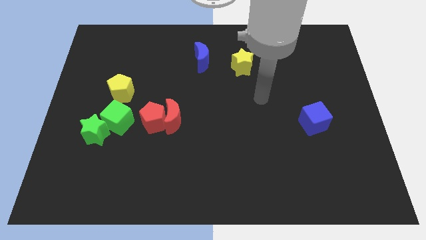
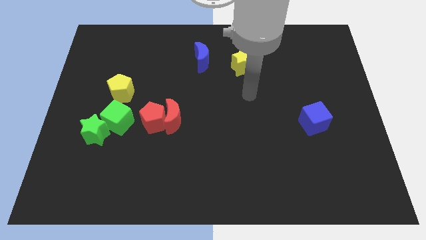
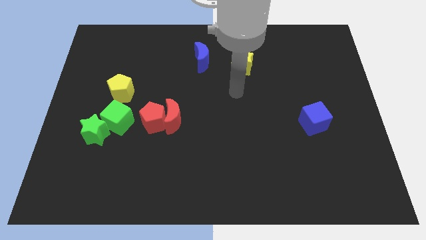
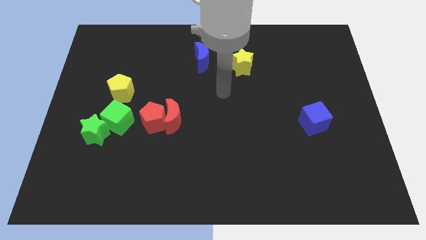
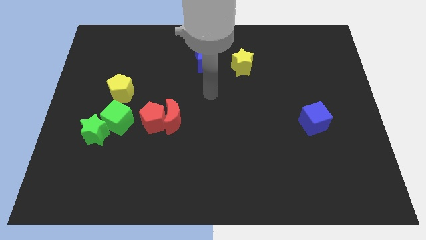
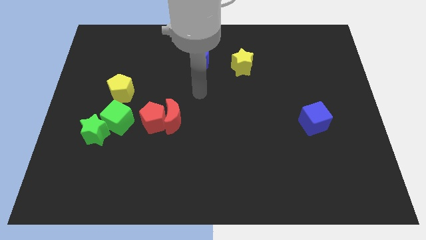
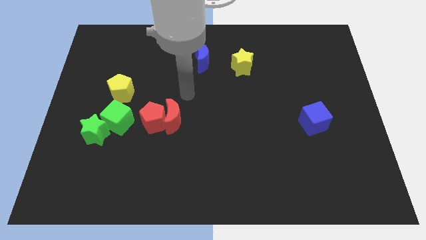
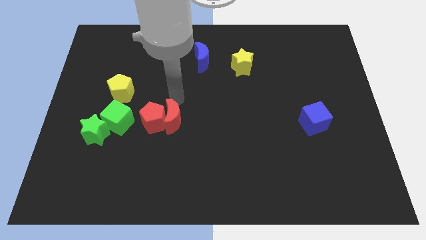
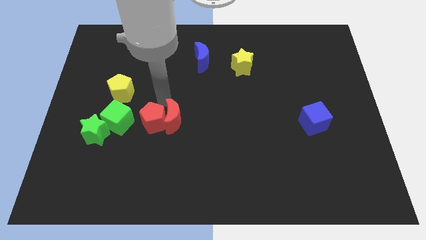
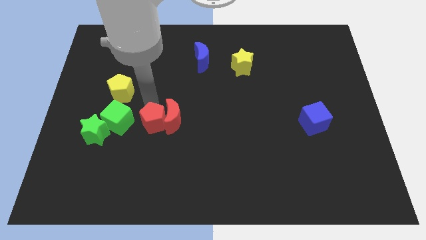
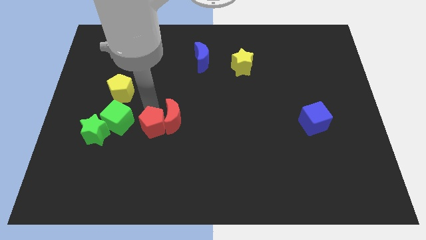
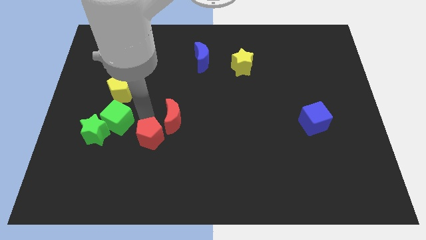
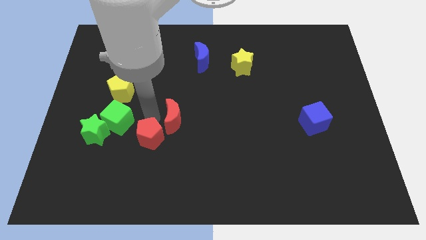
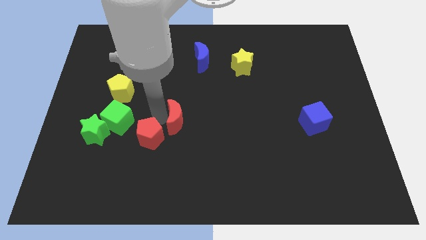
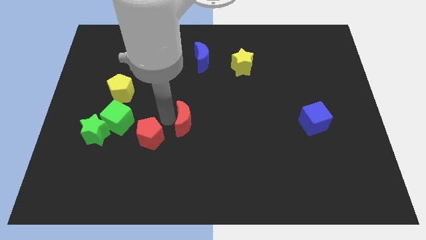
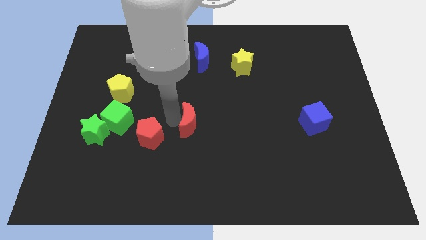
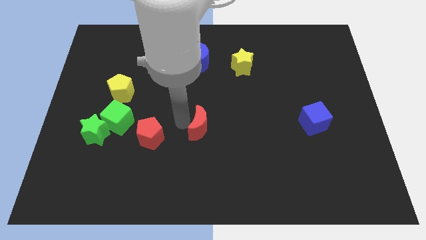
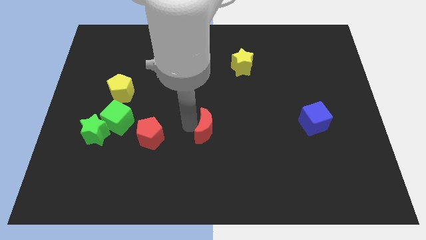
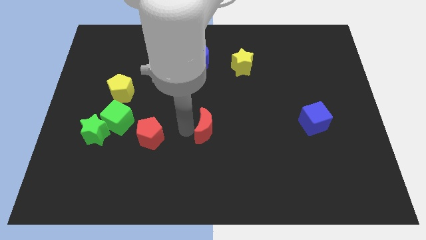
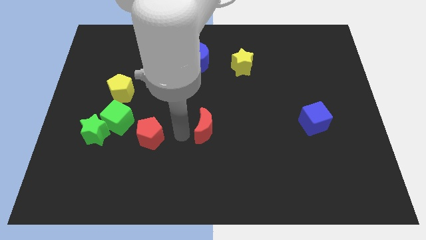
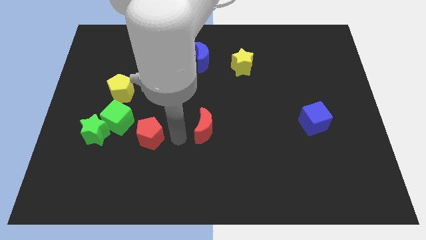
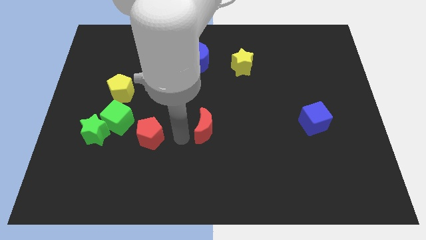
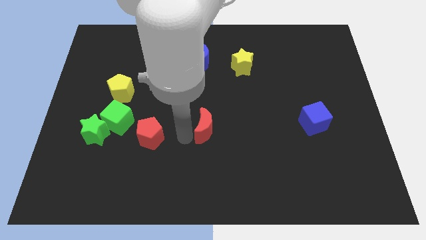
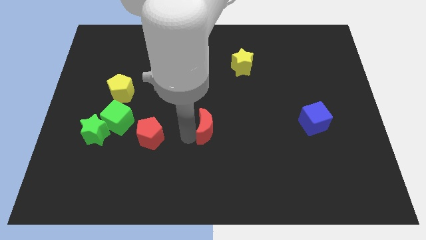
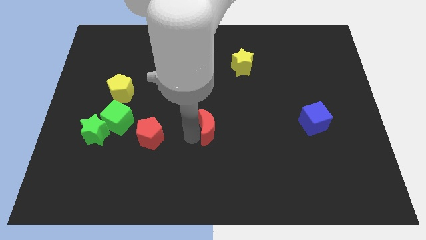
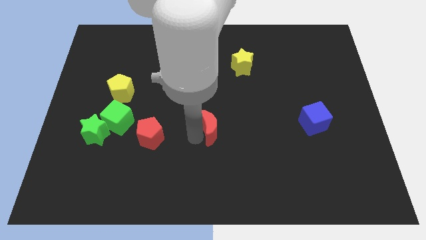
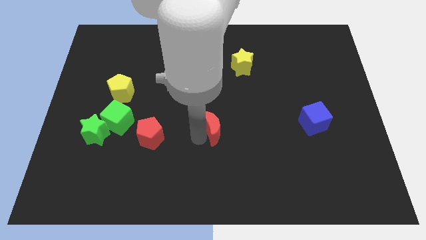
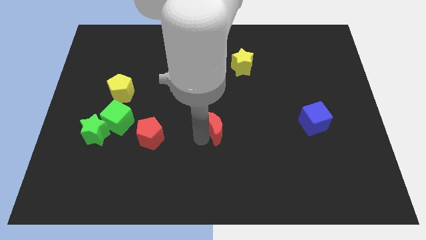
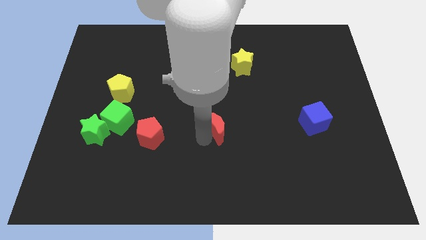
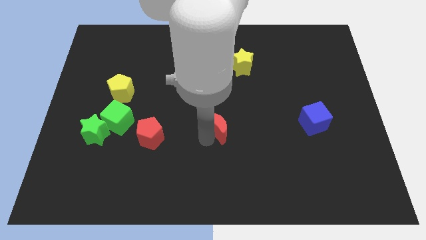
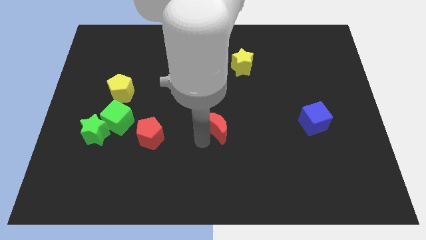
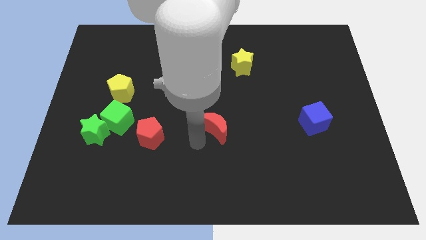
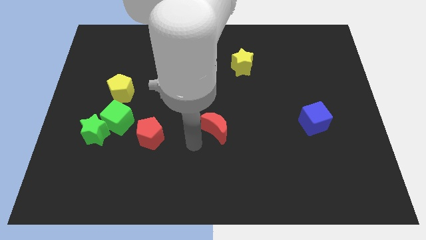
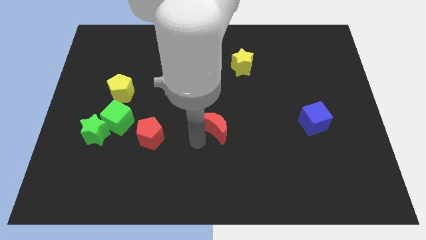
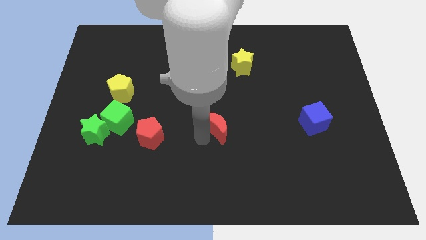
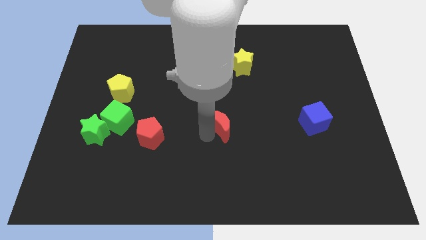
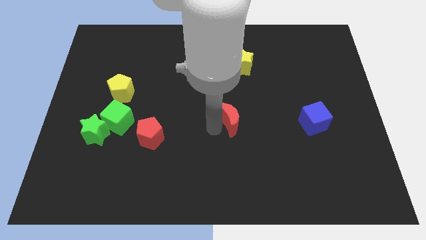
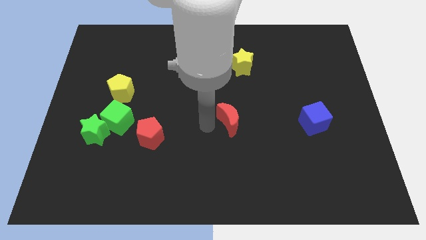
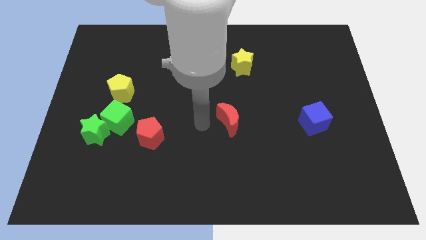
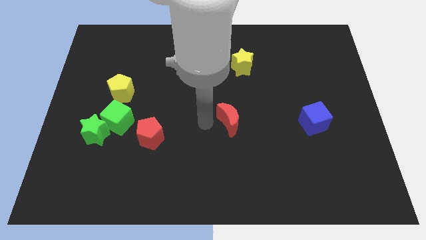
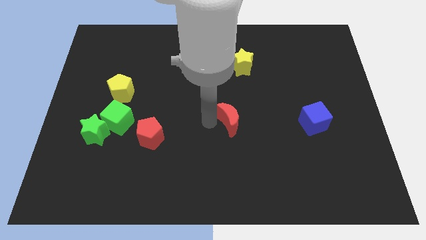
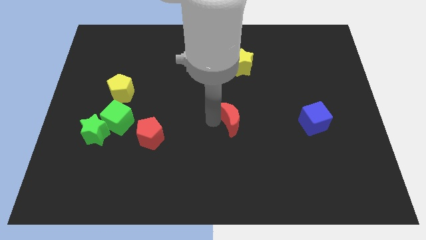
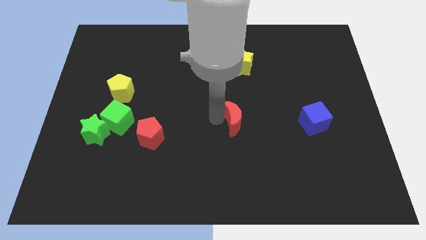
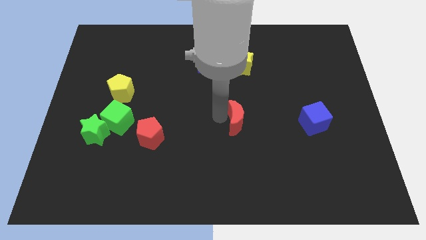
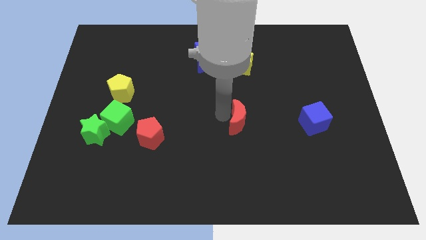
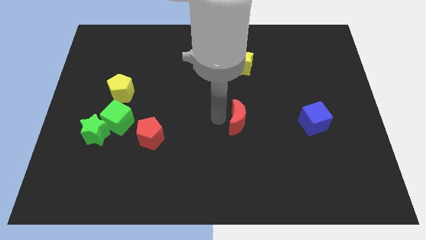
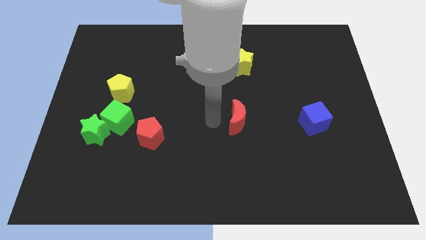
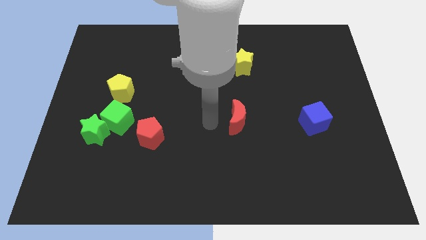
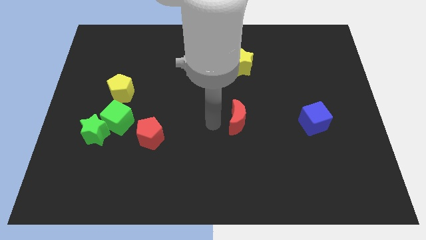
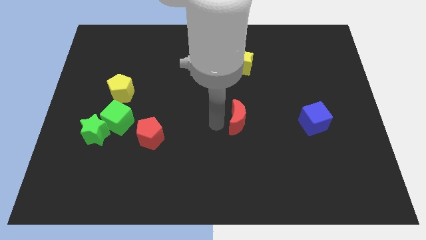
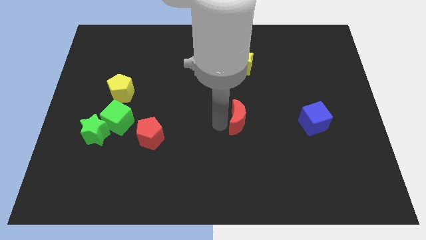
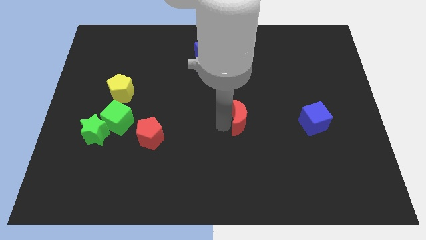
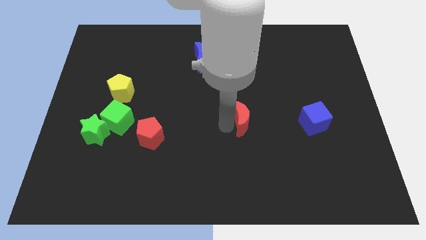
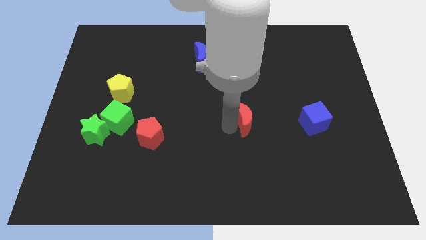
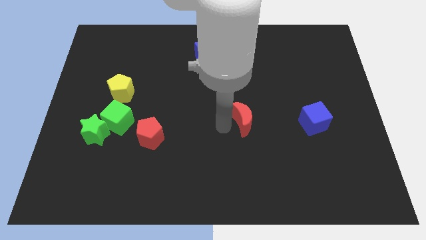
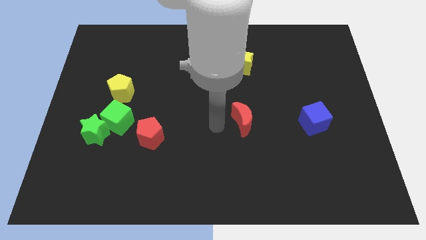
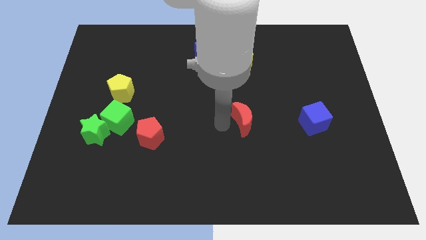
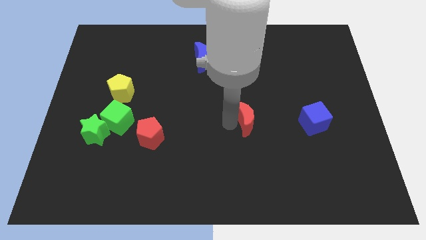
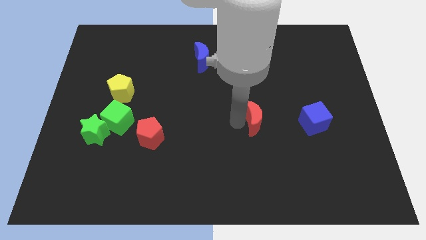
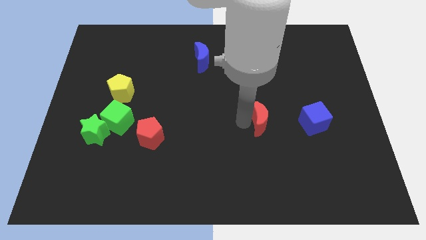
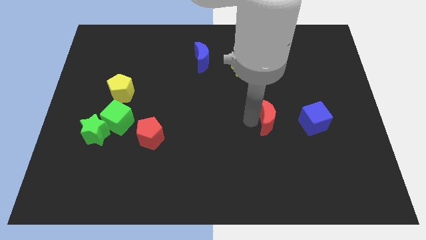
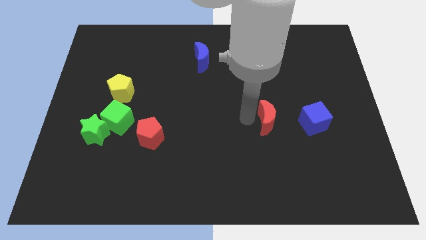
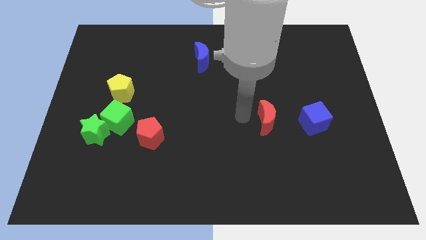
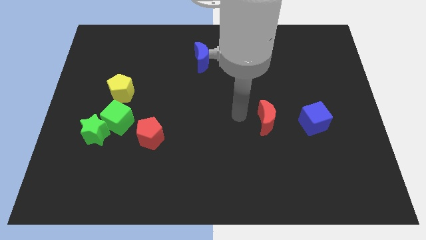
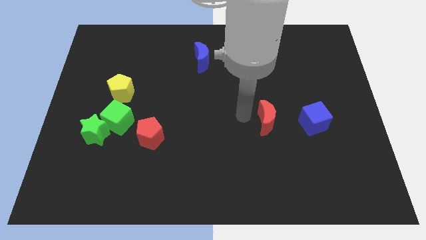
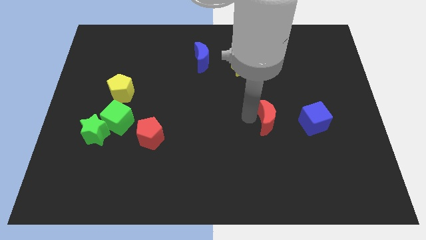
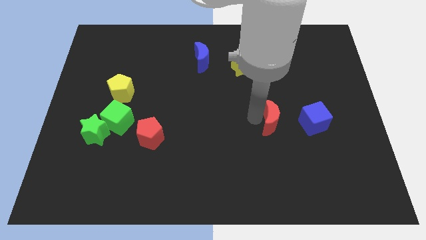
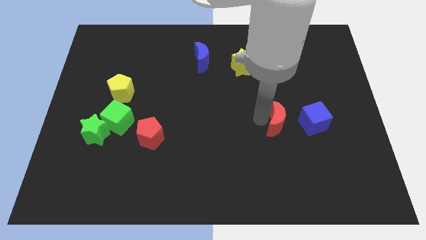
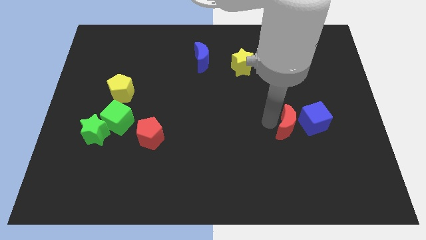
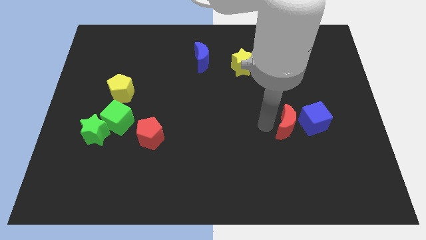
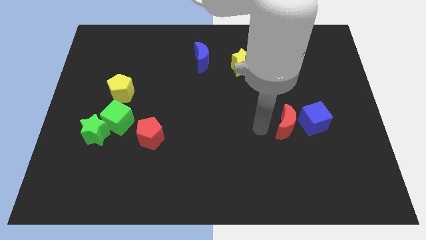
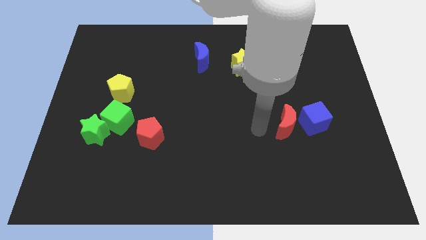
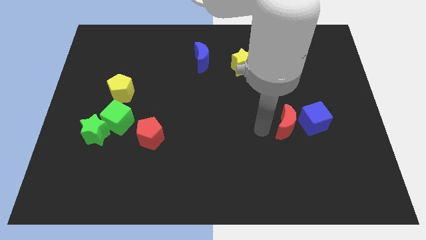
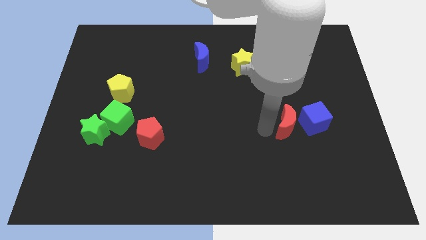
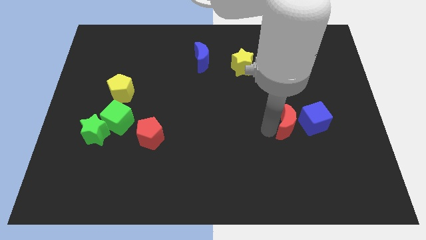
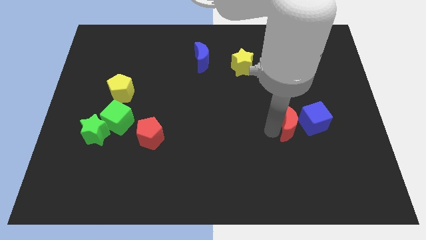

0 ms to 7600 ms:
move the red moon to the blue cube
